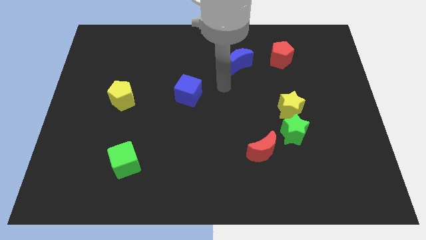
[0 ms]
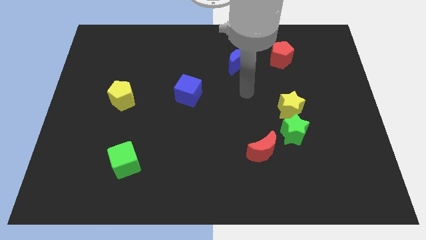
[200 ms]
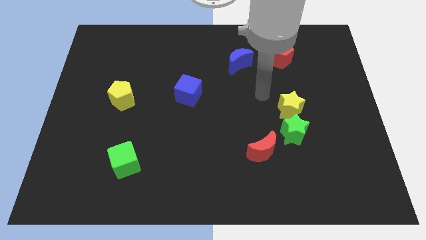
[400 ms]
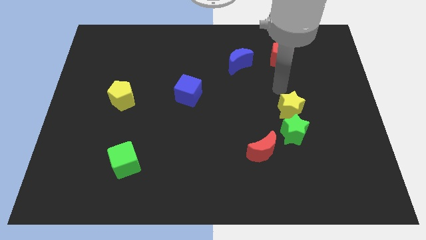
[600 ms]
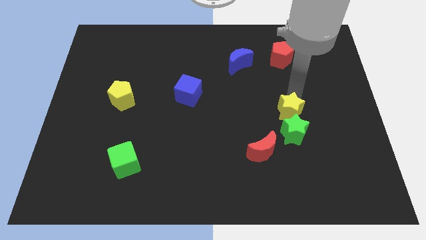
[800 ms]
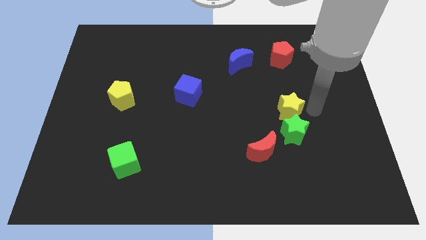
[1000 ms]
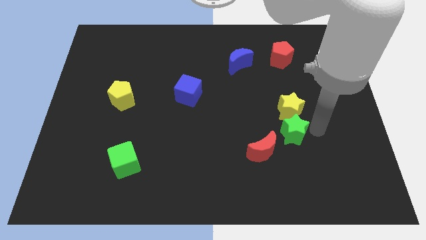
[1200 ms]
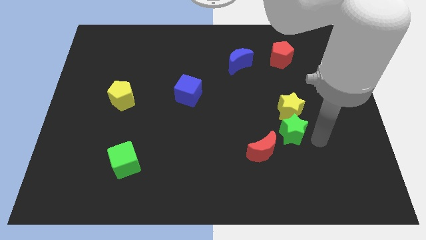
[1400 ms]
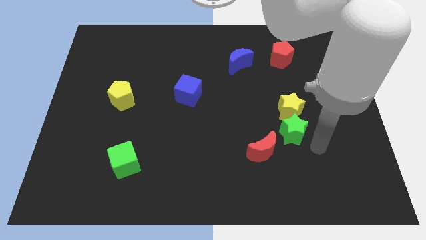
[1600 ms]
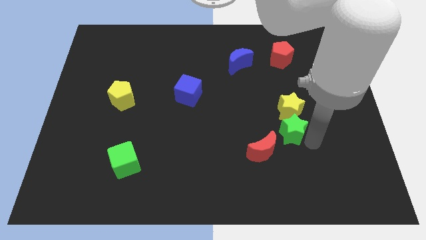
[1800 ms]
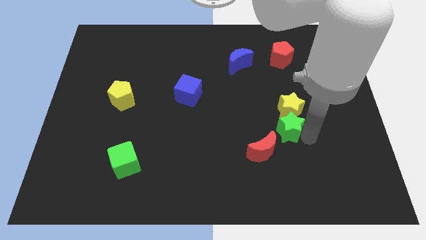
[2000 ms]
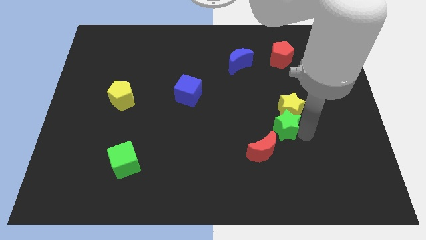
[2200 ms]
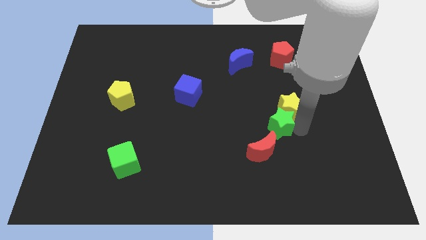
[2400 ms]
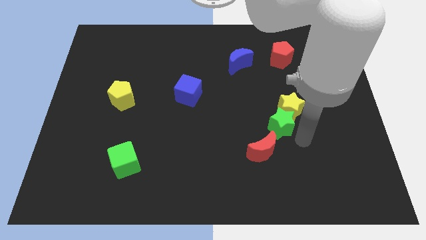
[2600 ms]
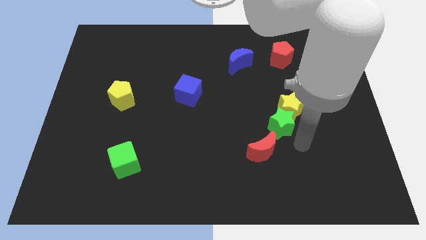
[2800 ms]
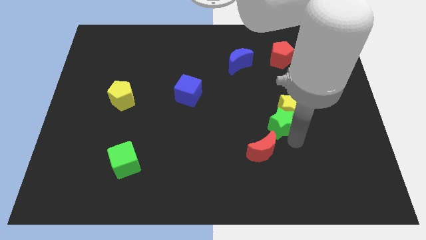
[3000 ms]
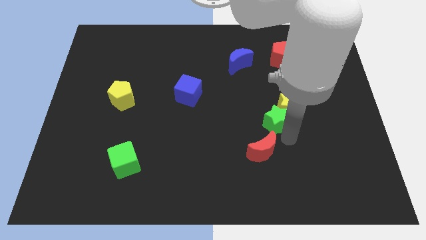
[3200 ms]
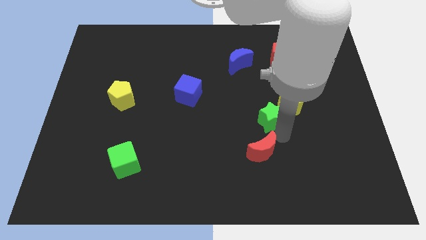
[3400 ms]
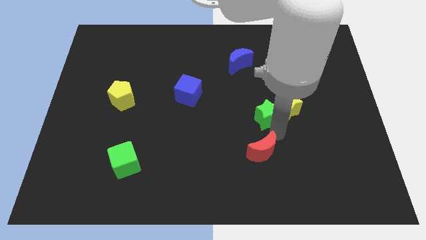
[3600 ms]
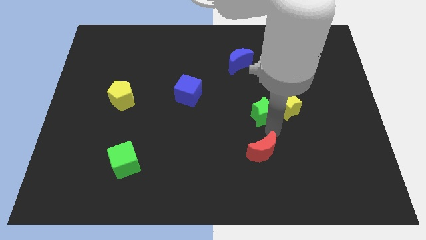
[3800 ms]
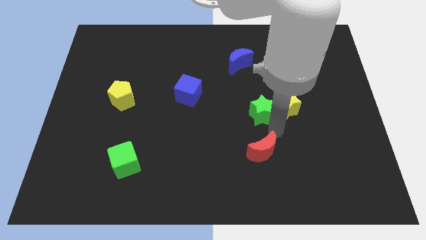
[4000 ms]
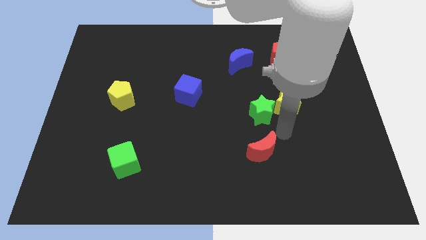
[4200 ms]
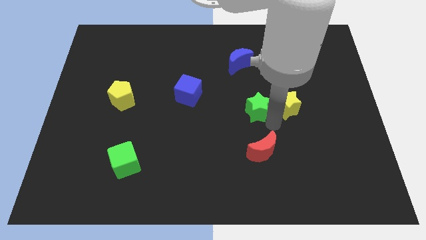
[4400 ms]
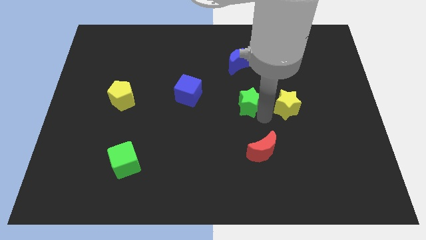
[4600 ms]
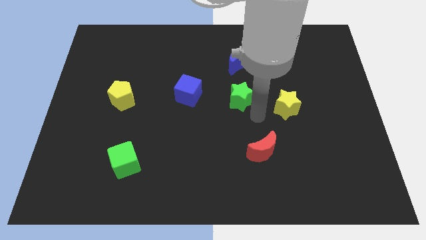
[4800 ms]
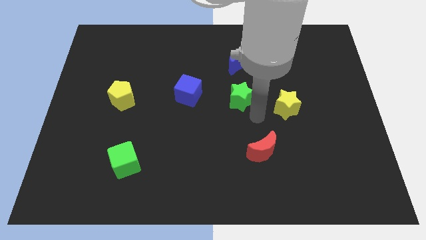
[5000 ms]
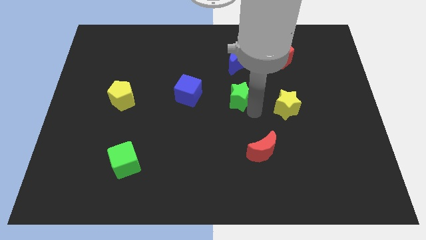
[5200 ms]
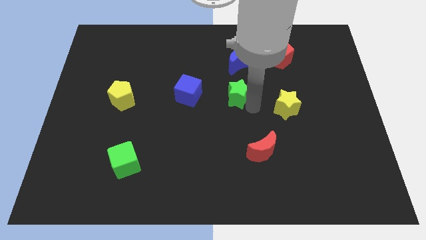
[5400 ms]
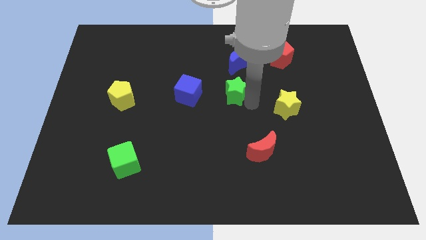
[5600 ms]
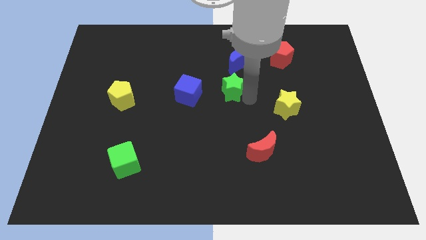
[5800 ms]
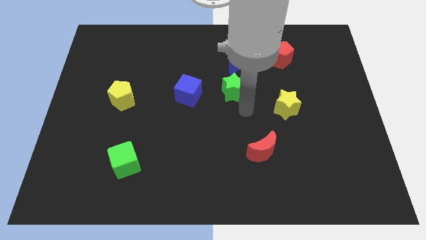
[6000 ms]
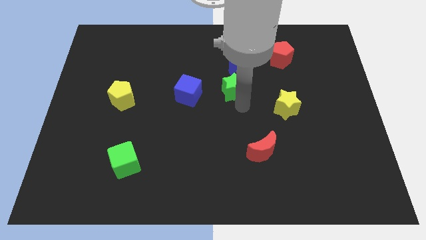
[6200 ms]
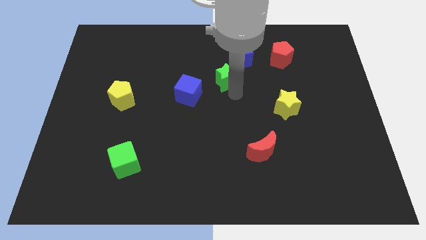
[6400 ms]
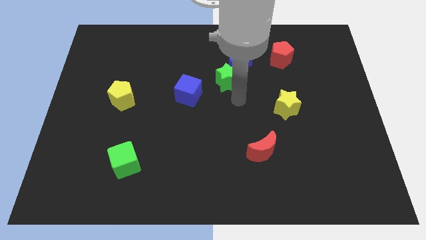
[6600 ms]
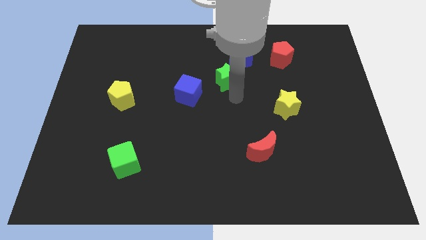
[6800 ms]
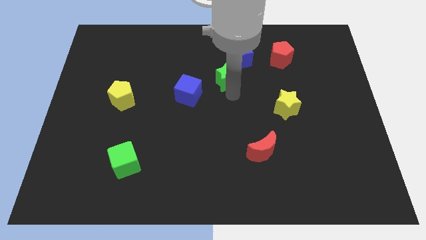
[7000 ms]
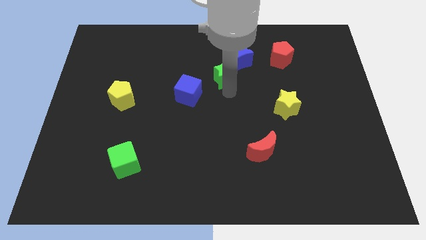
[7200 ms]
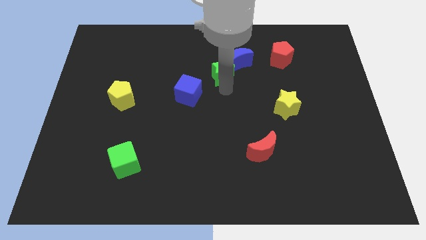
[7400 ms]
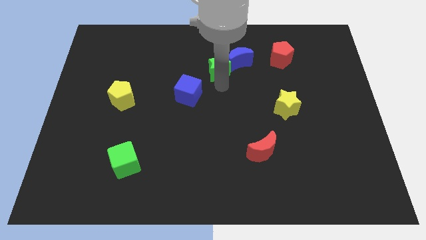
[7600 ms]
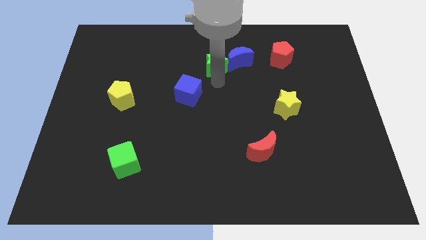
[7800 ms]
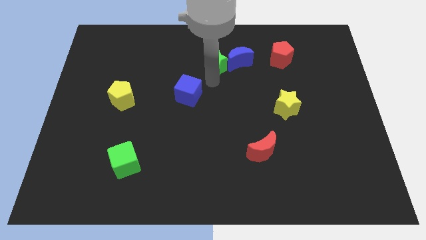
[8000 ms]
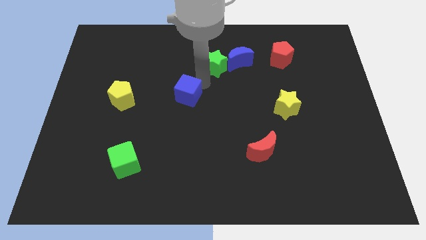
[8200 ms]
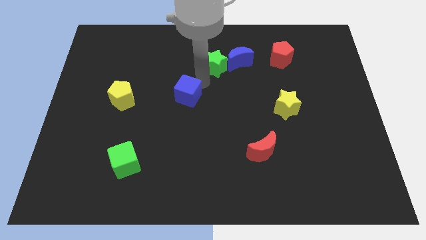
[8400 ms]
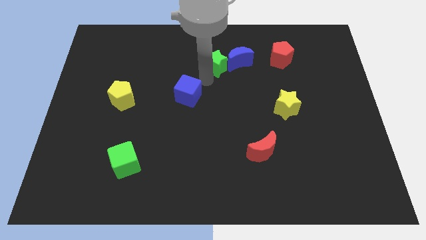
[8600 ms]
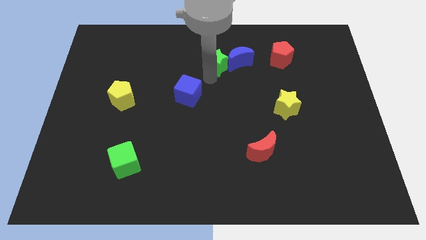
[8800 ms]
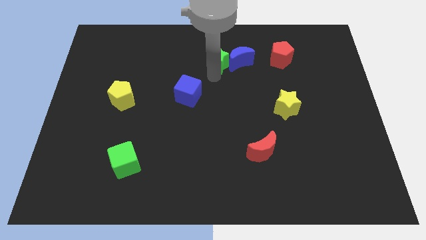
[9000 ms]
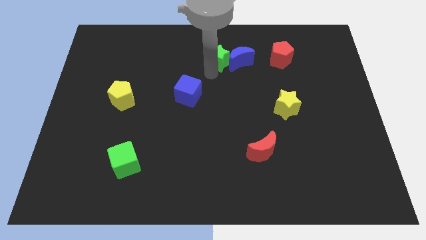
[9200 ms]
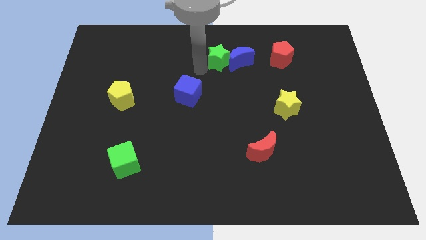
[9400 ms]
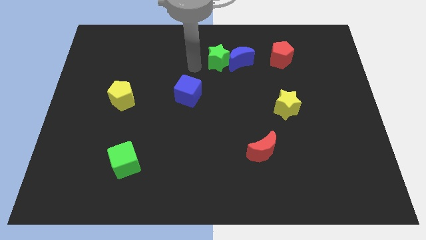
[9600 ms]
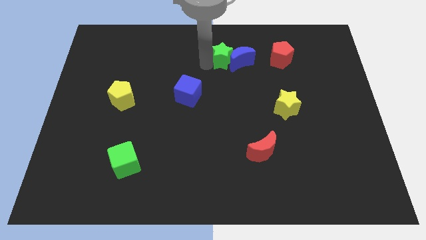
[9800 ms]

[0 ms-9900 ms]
push the green star to the left of the red pentagon

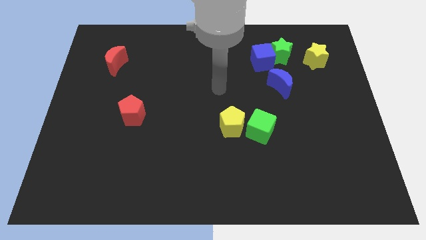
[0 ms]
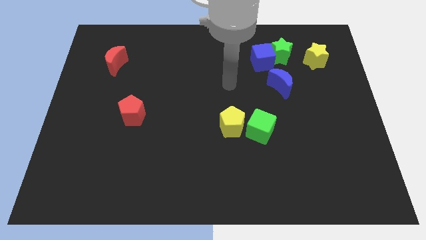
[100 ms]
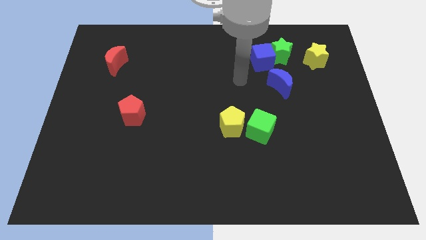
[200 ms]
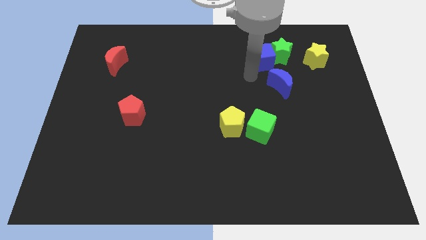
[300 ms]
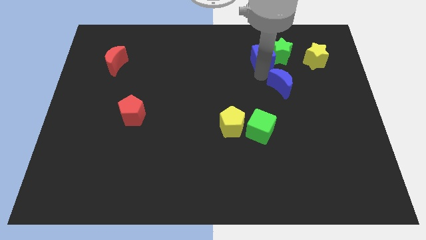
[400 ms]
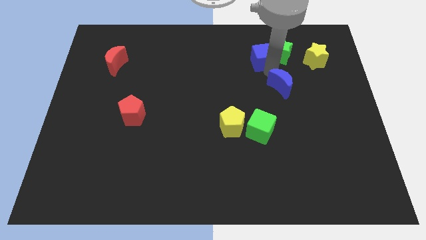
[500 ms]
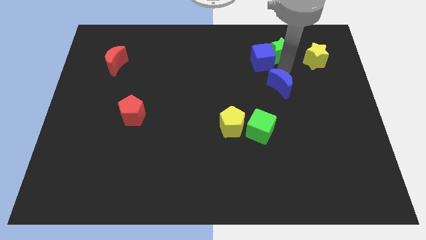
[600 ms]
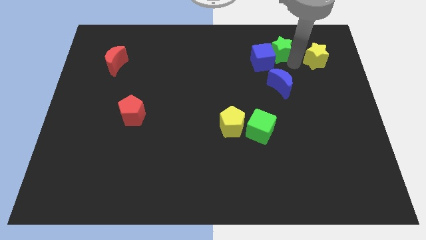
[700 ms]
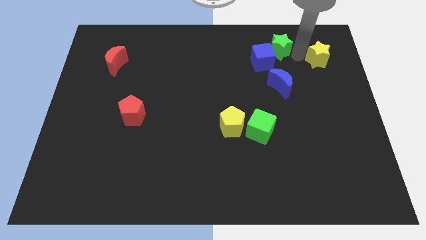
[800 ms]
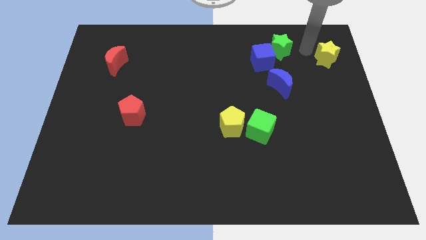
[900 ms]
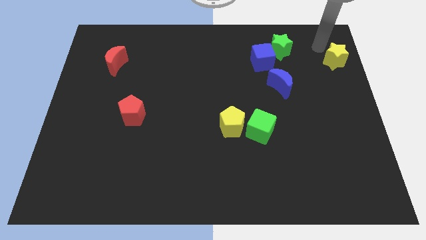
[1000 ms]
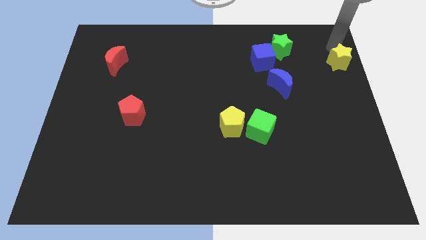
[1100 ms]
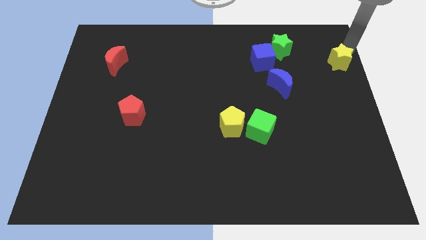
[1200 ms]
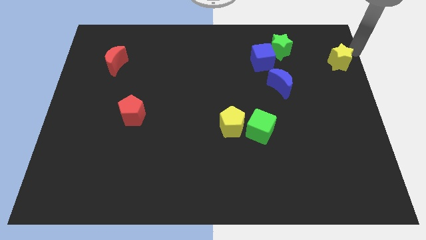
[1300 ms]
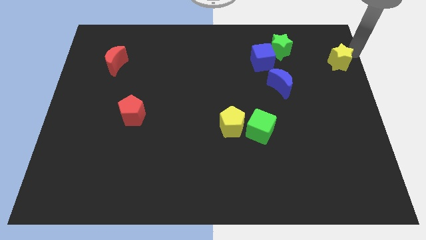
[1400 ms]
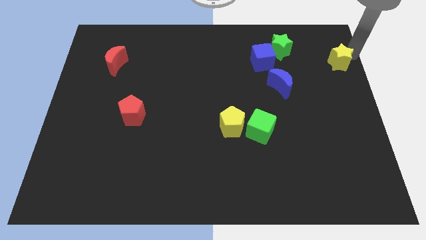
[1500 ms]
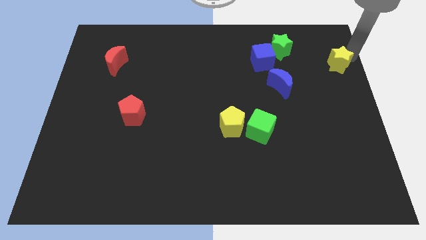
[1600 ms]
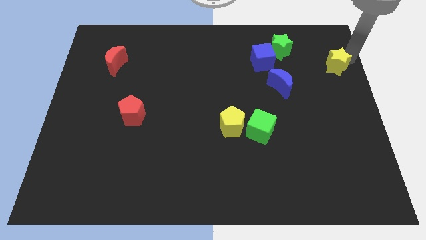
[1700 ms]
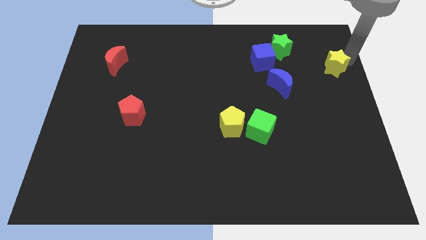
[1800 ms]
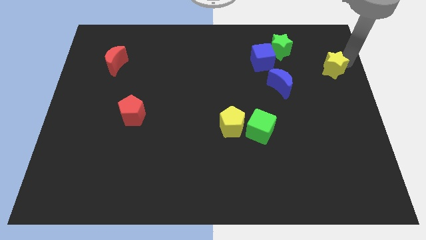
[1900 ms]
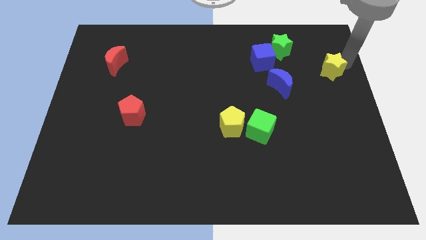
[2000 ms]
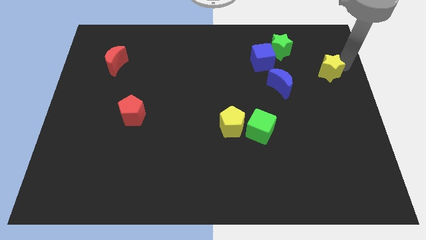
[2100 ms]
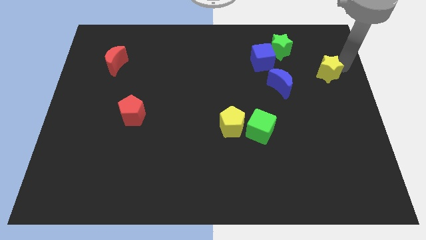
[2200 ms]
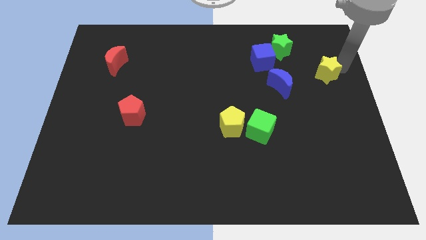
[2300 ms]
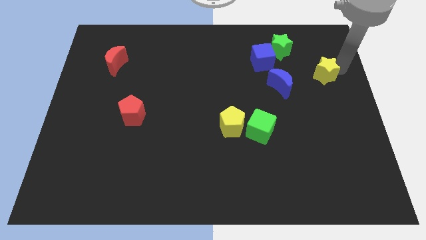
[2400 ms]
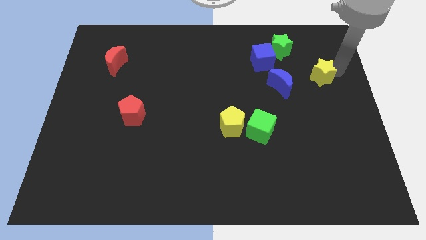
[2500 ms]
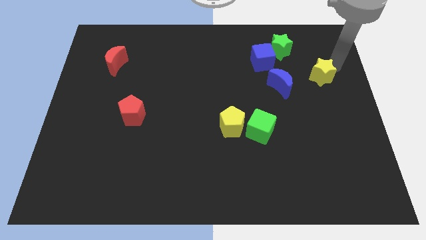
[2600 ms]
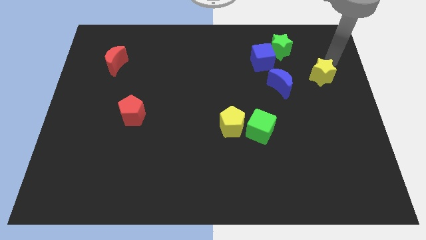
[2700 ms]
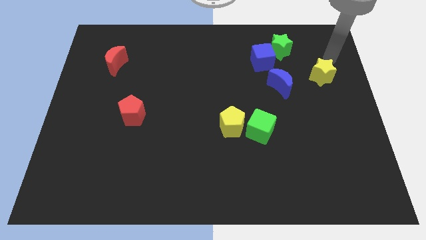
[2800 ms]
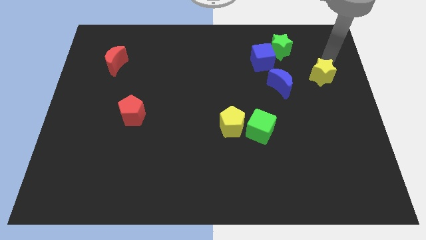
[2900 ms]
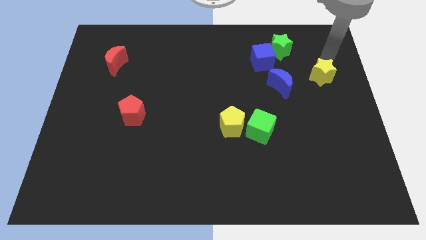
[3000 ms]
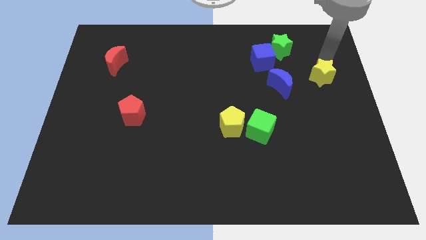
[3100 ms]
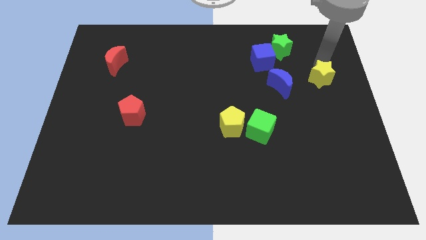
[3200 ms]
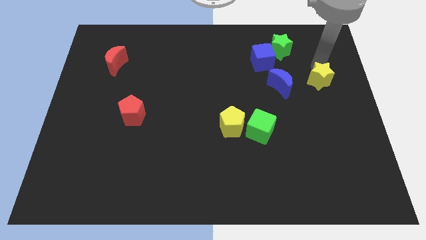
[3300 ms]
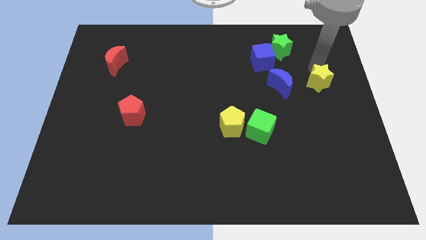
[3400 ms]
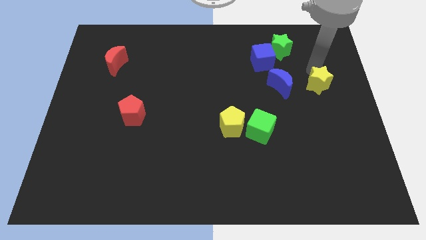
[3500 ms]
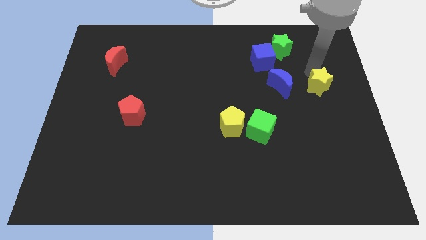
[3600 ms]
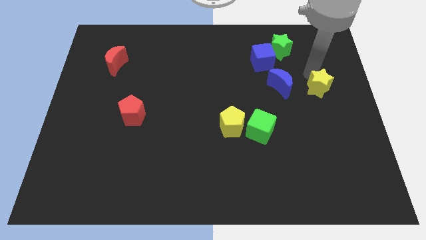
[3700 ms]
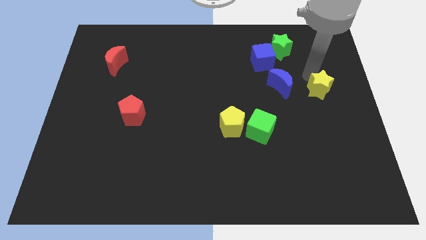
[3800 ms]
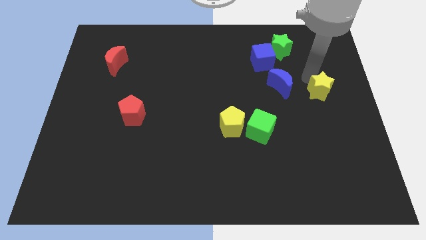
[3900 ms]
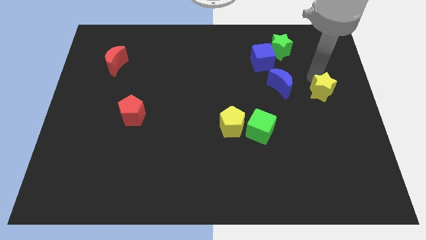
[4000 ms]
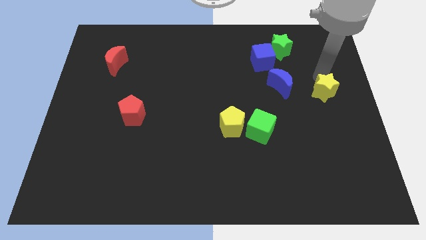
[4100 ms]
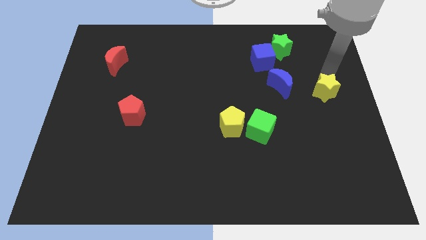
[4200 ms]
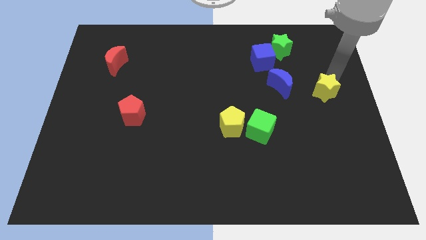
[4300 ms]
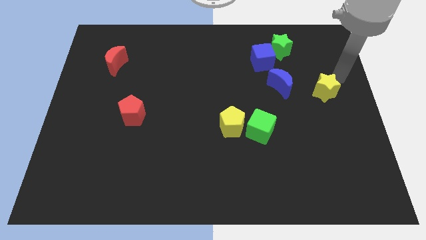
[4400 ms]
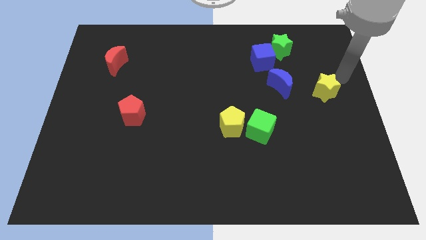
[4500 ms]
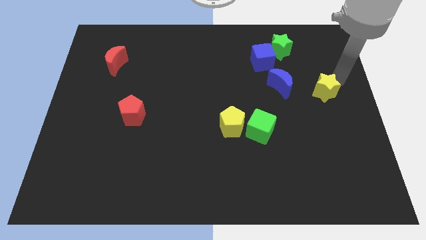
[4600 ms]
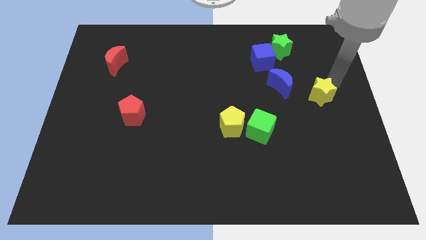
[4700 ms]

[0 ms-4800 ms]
put the yellow star to the bottom right of the blue moon
